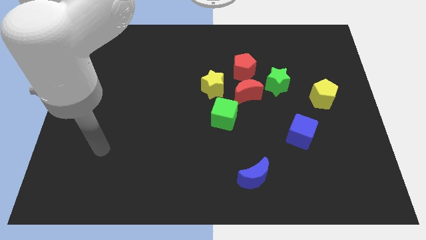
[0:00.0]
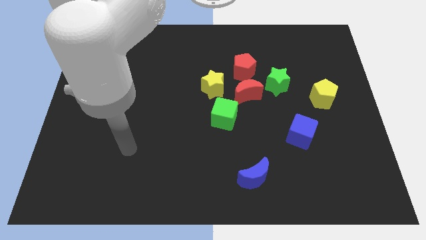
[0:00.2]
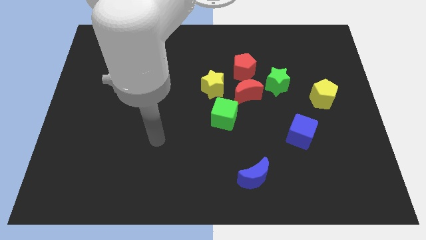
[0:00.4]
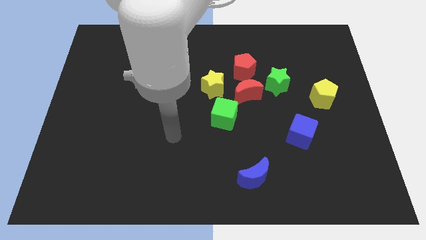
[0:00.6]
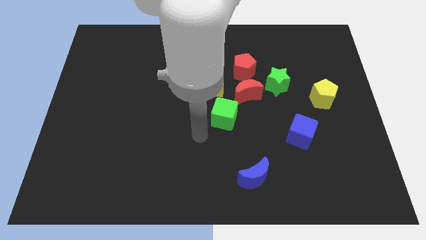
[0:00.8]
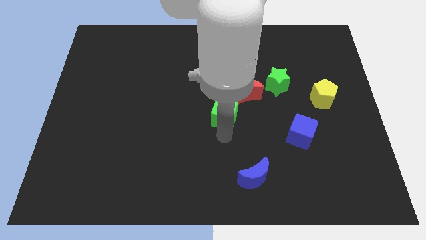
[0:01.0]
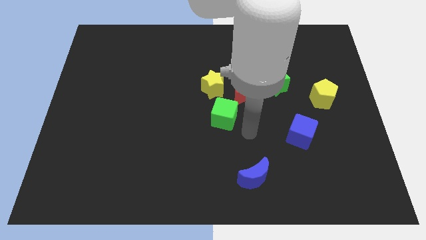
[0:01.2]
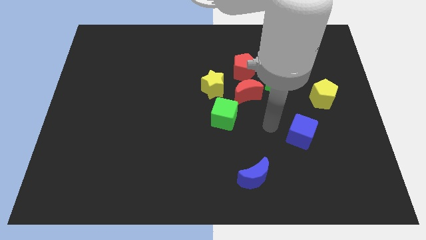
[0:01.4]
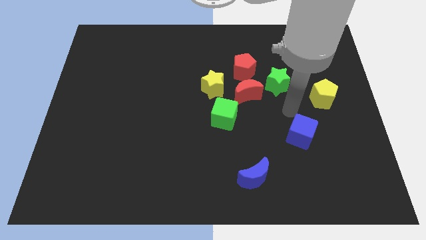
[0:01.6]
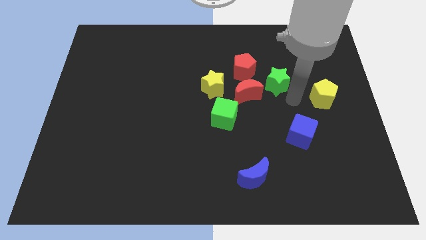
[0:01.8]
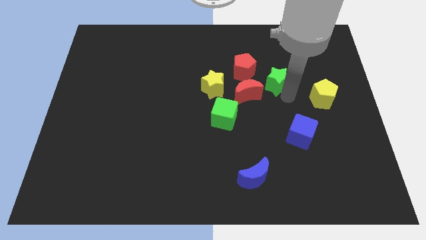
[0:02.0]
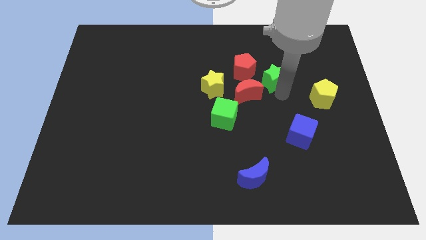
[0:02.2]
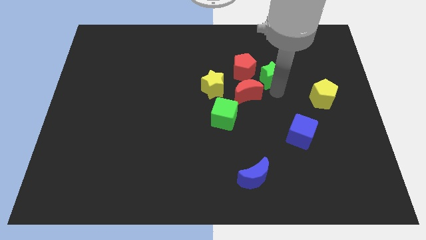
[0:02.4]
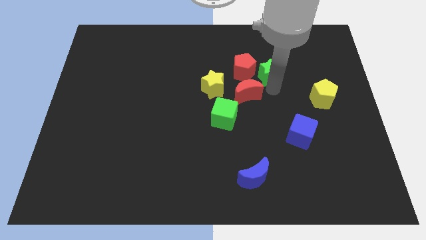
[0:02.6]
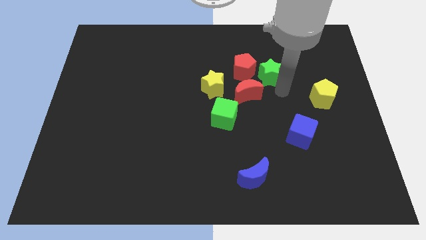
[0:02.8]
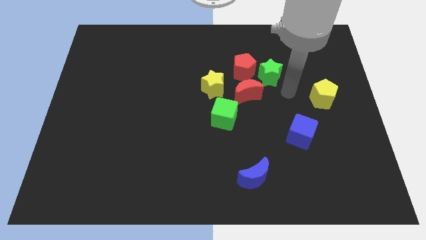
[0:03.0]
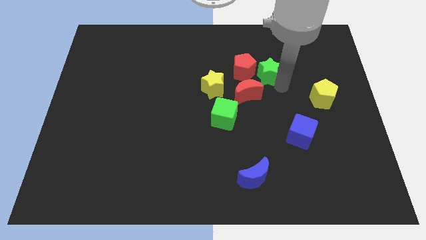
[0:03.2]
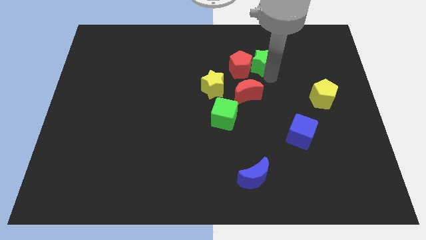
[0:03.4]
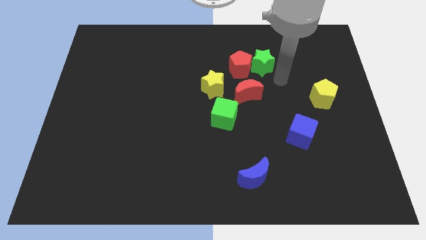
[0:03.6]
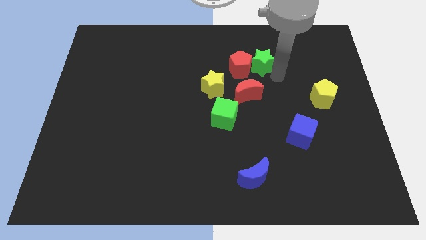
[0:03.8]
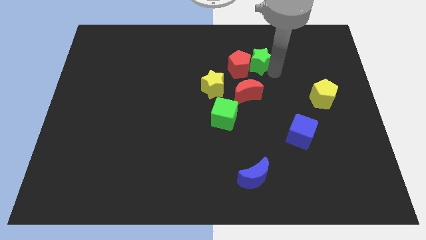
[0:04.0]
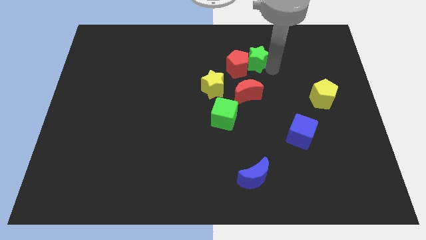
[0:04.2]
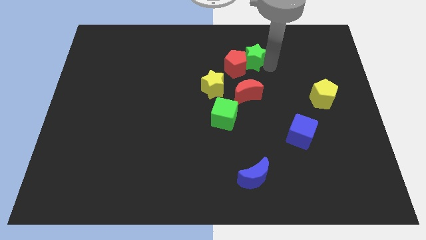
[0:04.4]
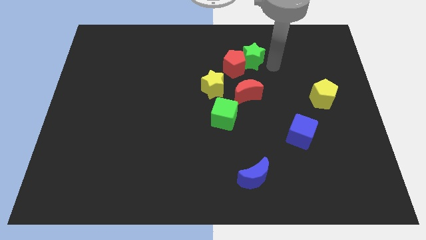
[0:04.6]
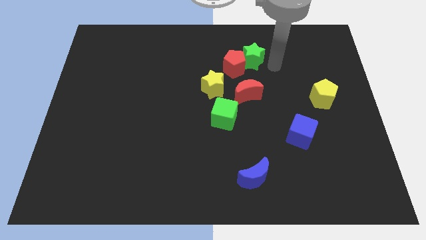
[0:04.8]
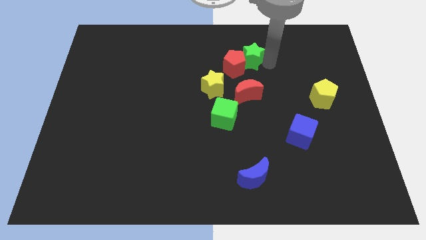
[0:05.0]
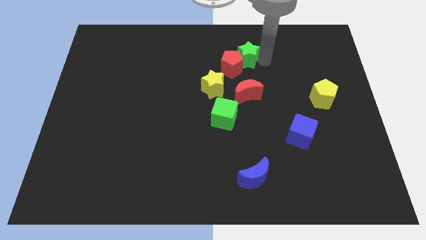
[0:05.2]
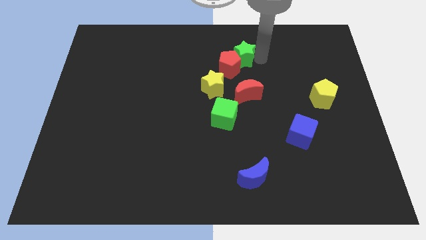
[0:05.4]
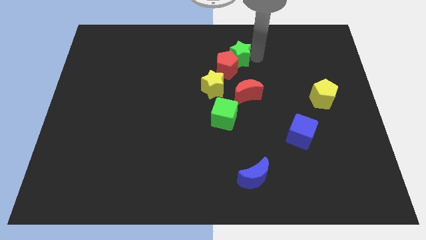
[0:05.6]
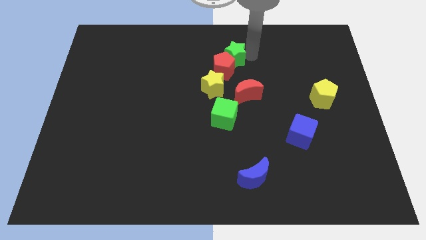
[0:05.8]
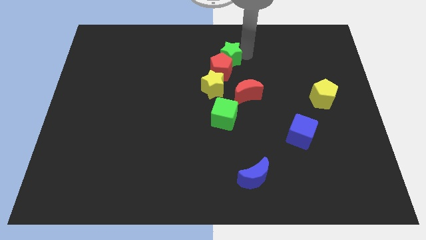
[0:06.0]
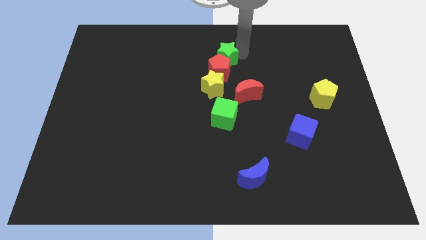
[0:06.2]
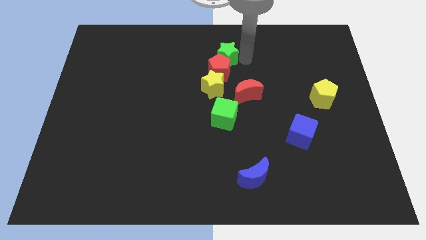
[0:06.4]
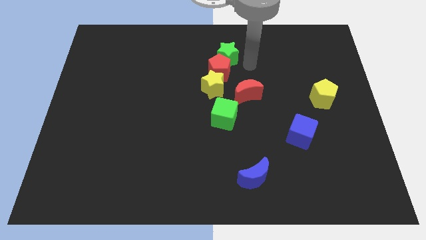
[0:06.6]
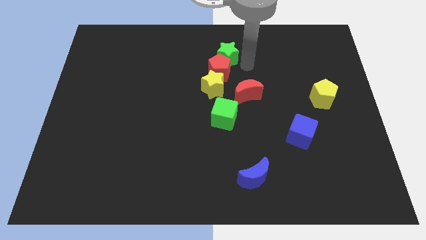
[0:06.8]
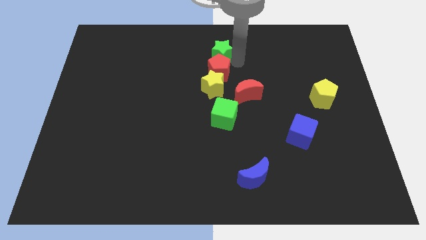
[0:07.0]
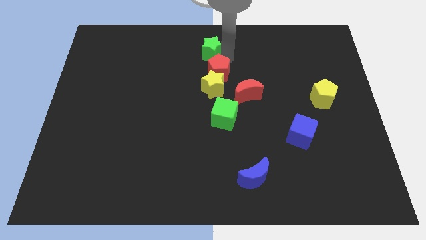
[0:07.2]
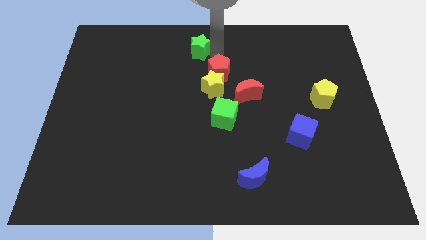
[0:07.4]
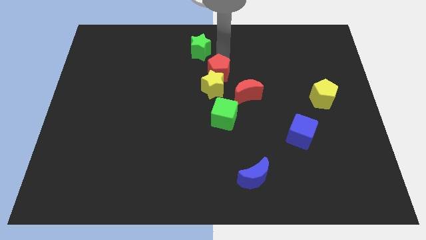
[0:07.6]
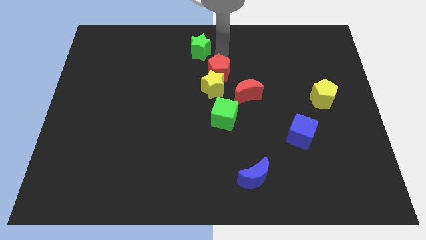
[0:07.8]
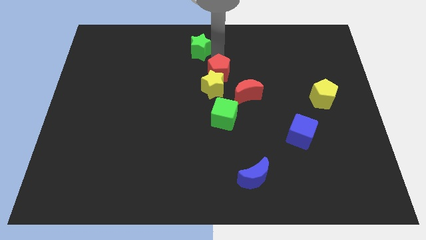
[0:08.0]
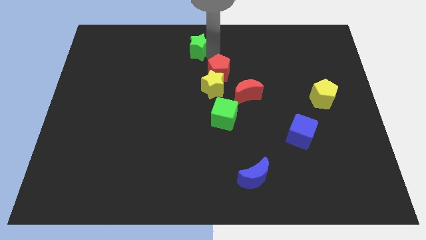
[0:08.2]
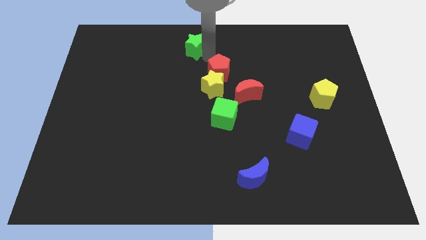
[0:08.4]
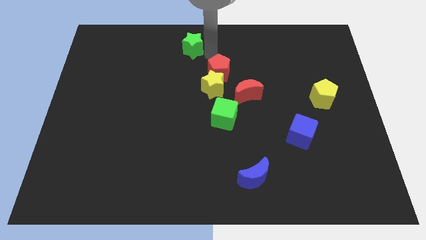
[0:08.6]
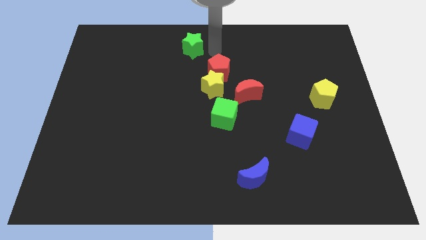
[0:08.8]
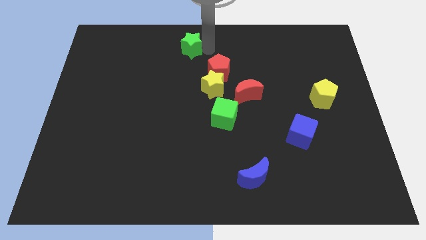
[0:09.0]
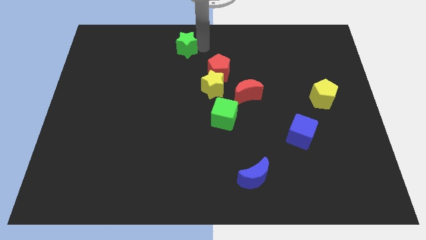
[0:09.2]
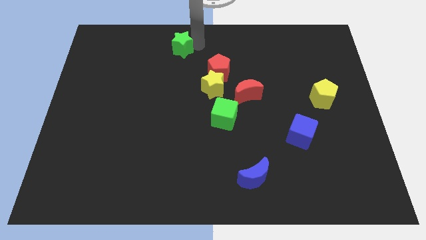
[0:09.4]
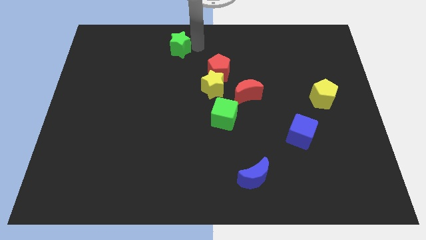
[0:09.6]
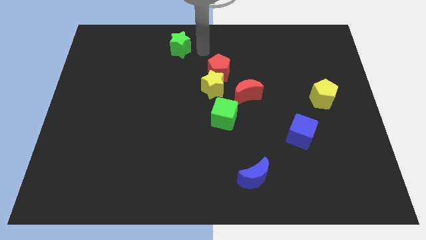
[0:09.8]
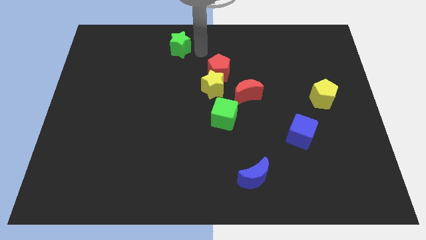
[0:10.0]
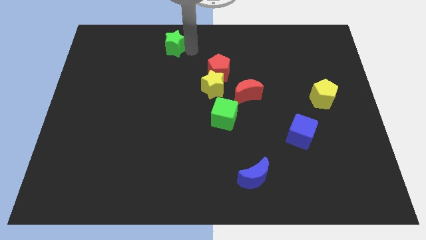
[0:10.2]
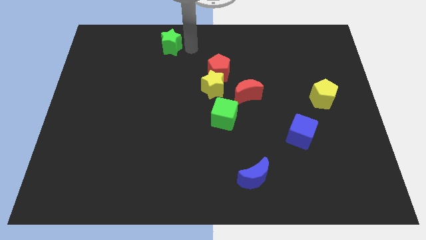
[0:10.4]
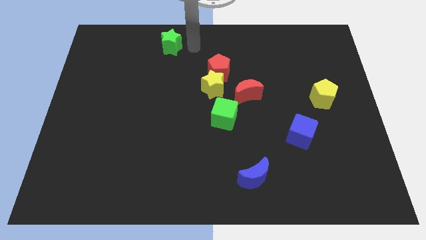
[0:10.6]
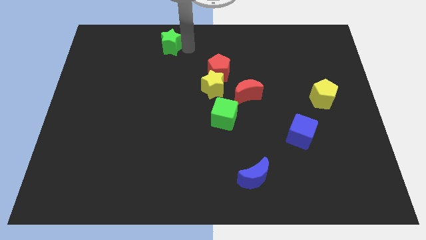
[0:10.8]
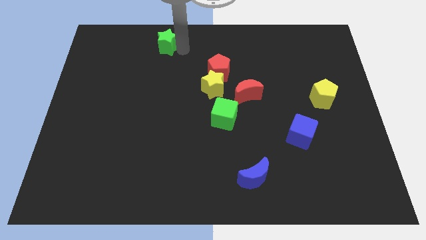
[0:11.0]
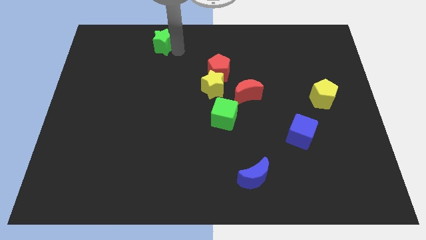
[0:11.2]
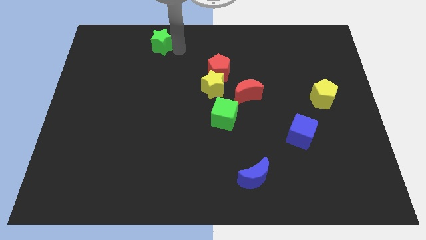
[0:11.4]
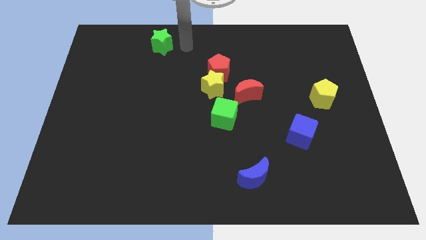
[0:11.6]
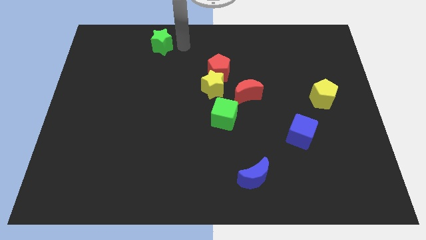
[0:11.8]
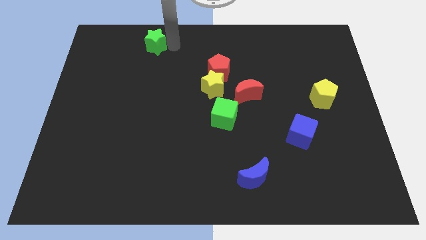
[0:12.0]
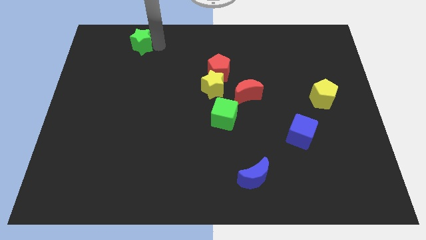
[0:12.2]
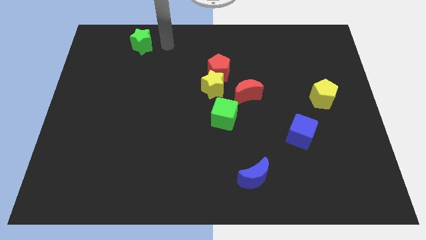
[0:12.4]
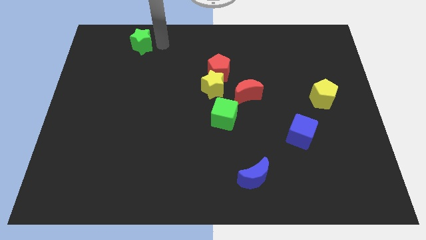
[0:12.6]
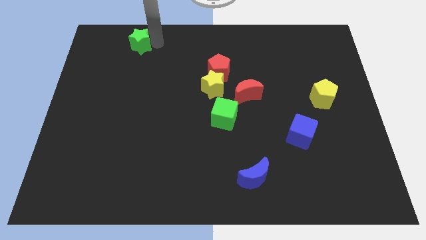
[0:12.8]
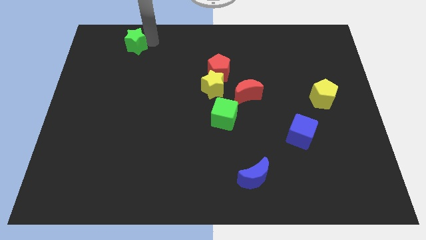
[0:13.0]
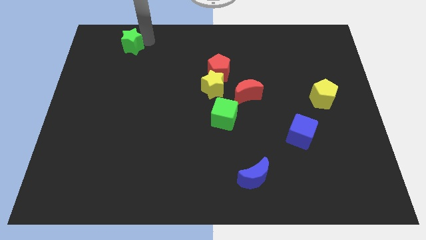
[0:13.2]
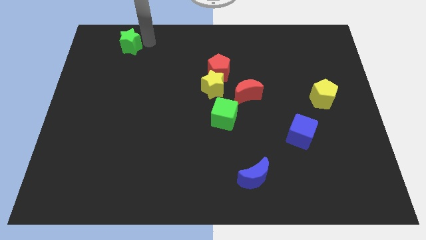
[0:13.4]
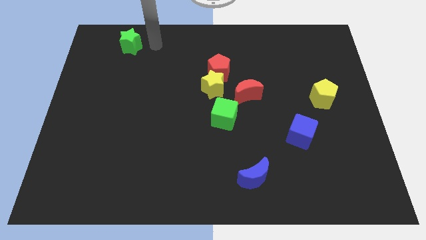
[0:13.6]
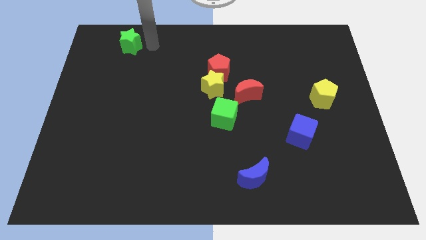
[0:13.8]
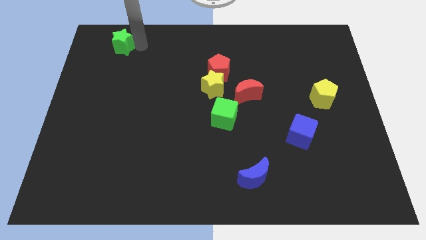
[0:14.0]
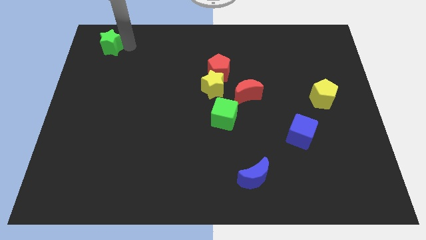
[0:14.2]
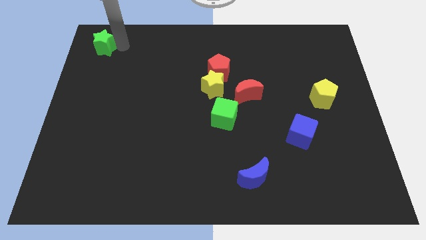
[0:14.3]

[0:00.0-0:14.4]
push the green star to the top left
